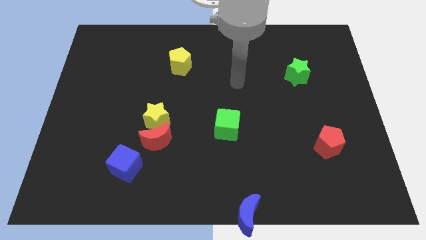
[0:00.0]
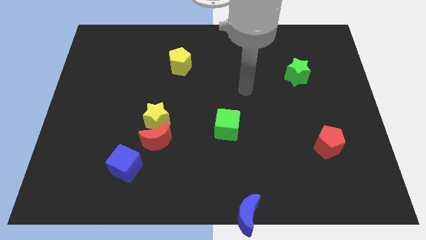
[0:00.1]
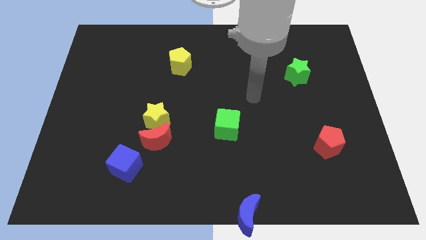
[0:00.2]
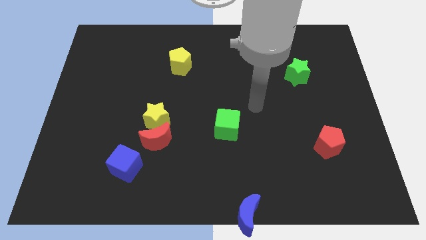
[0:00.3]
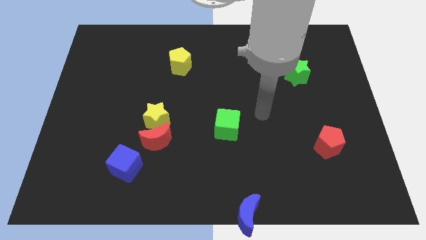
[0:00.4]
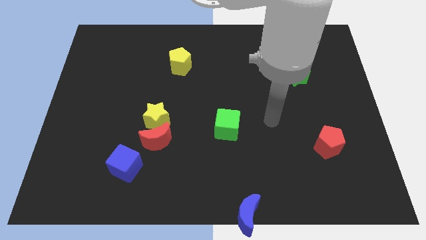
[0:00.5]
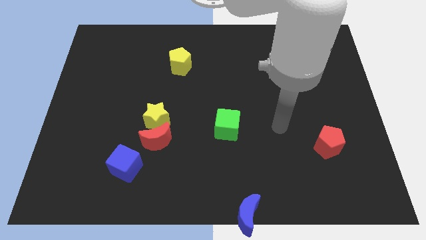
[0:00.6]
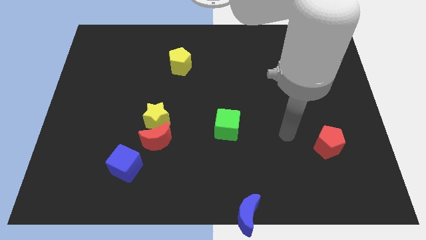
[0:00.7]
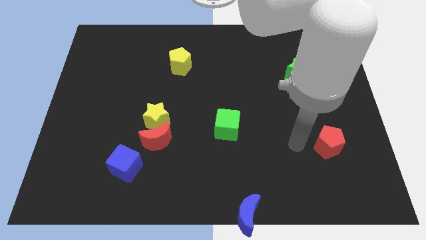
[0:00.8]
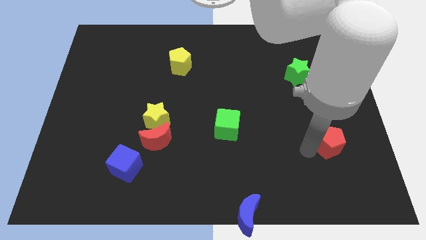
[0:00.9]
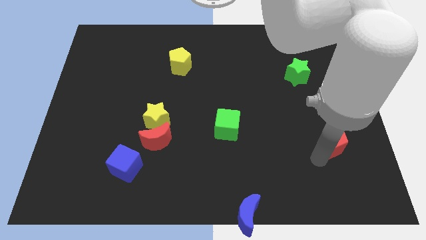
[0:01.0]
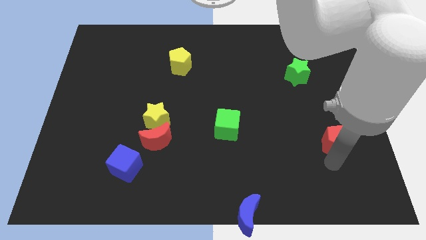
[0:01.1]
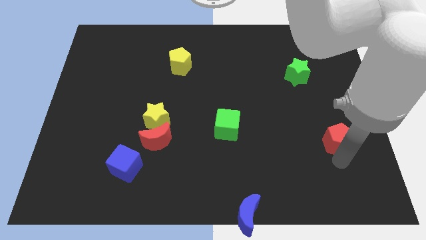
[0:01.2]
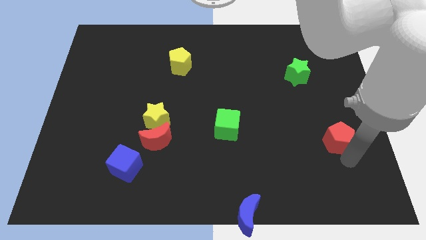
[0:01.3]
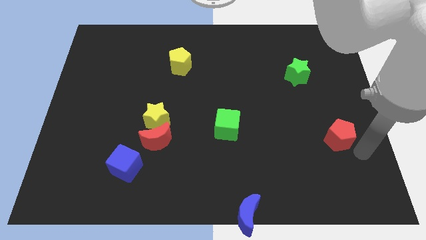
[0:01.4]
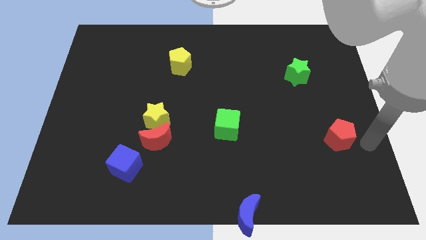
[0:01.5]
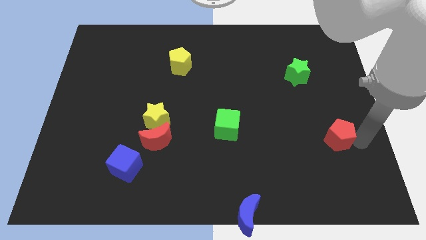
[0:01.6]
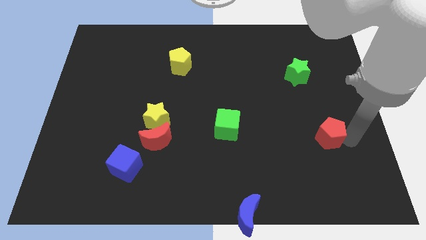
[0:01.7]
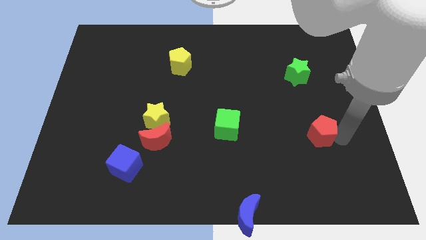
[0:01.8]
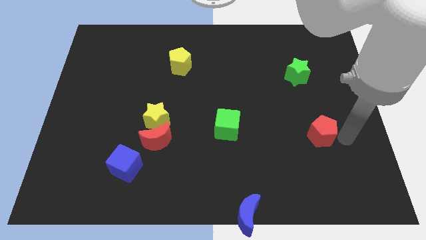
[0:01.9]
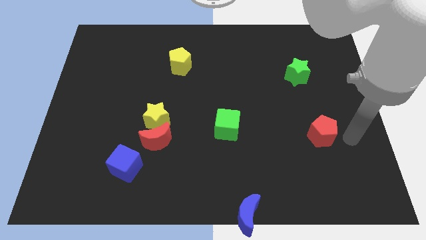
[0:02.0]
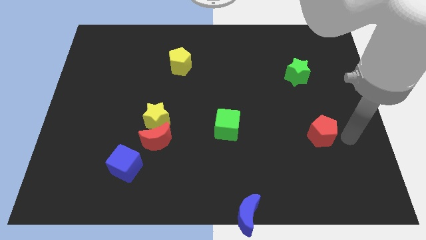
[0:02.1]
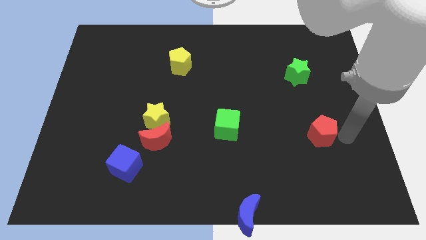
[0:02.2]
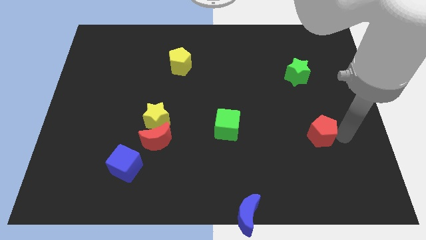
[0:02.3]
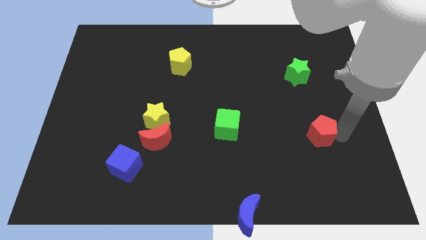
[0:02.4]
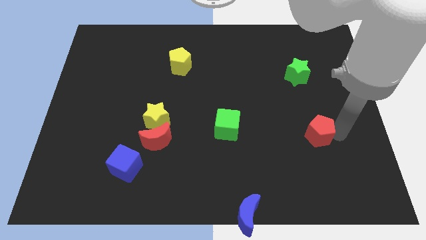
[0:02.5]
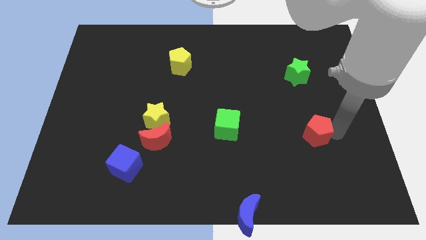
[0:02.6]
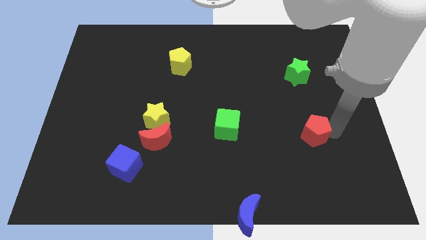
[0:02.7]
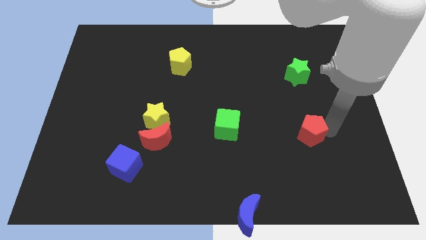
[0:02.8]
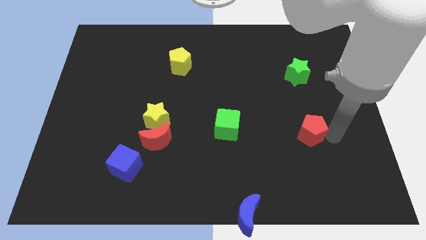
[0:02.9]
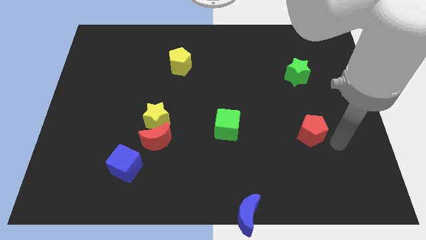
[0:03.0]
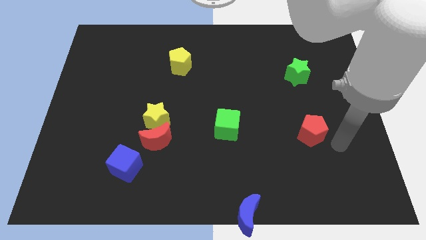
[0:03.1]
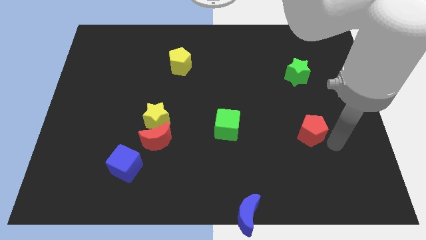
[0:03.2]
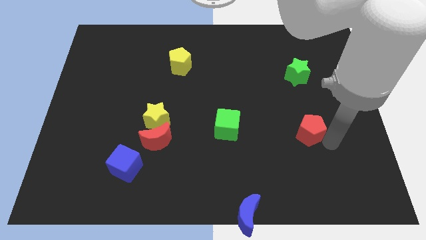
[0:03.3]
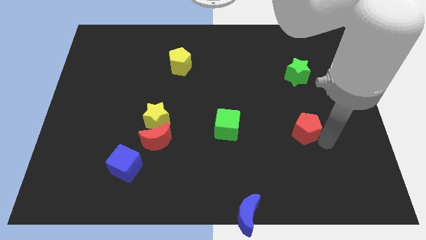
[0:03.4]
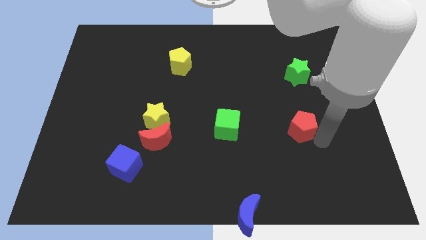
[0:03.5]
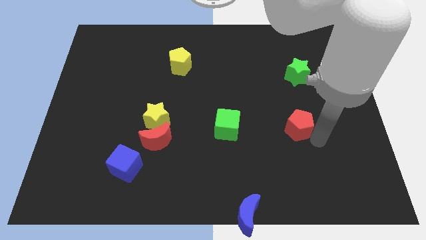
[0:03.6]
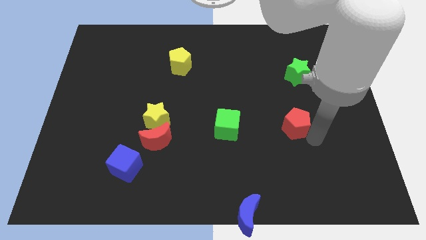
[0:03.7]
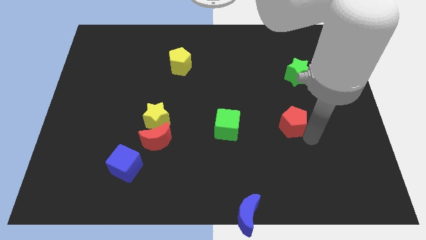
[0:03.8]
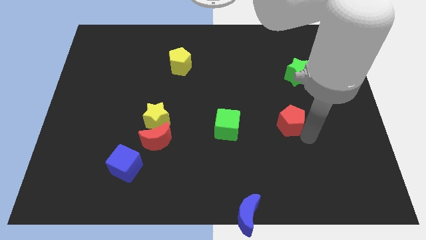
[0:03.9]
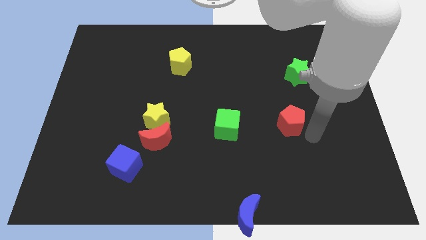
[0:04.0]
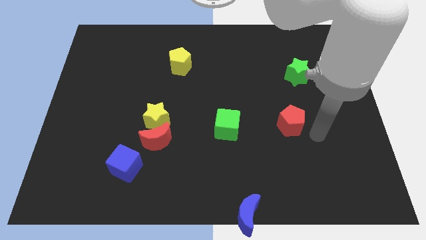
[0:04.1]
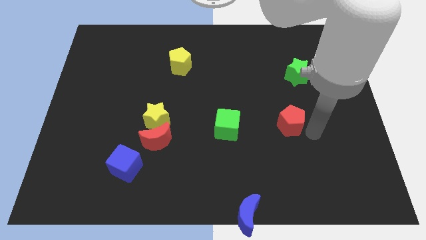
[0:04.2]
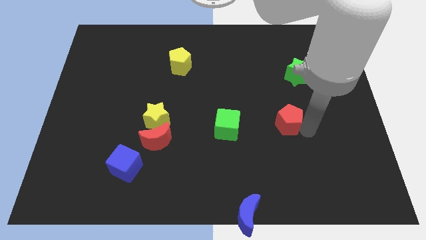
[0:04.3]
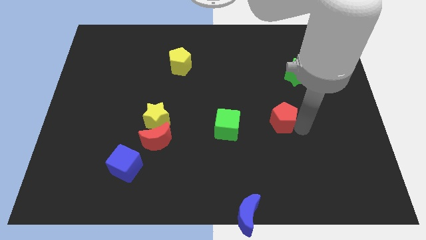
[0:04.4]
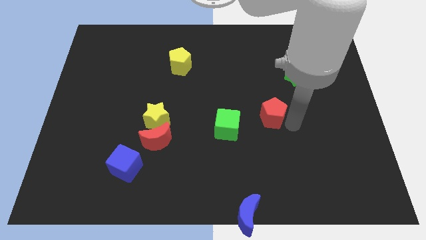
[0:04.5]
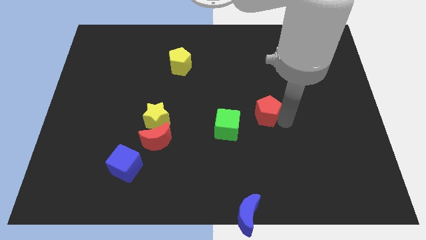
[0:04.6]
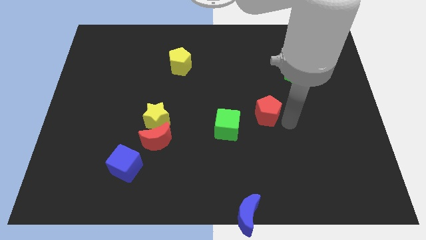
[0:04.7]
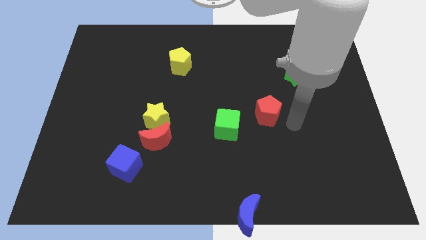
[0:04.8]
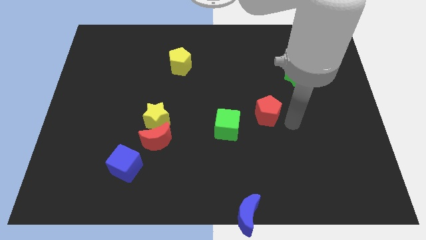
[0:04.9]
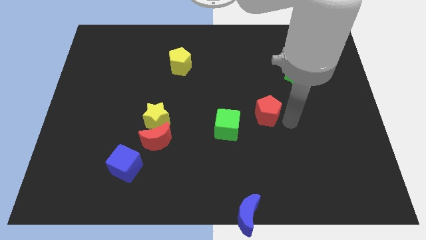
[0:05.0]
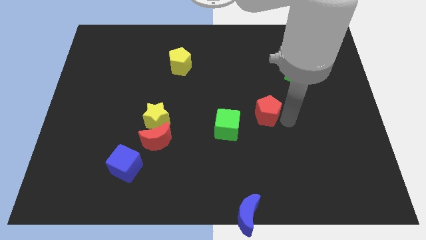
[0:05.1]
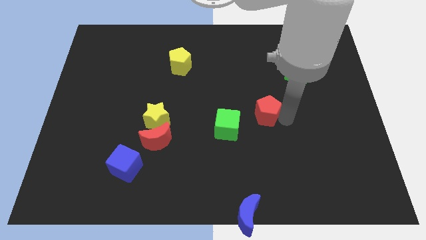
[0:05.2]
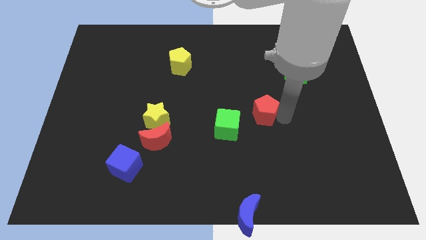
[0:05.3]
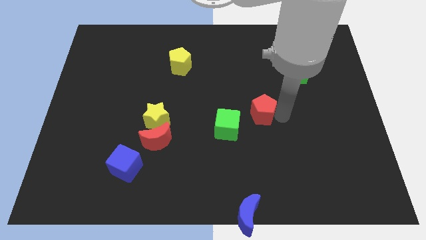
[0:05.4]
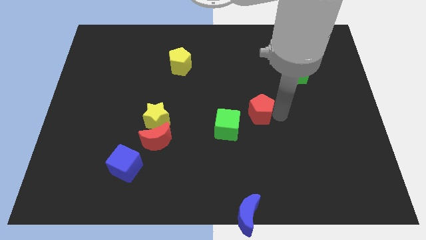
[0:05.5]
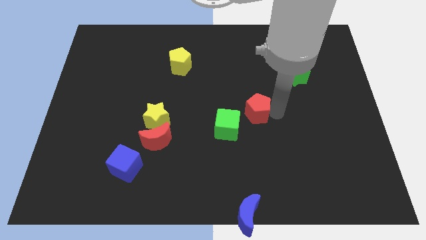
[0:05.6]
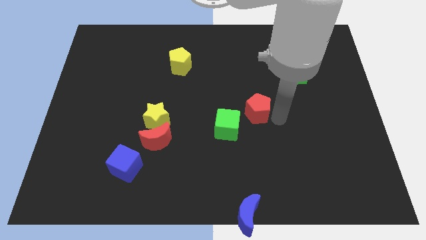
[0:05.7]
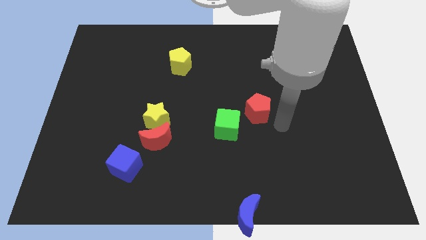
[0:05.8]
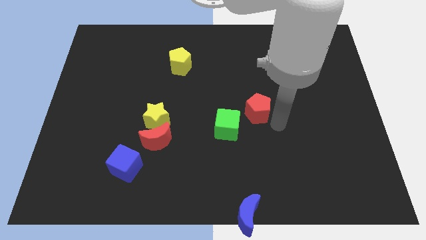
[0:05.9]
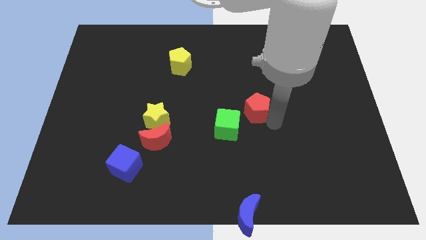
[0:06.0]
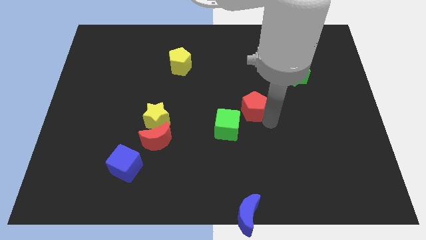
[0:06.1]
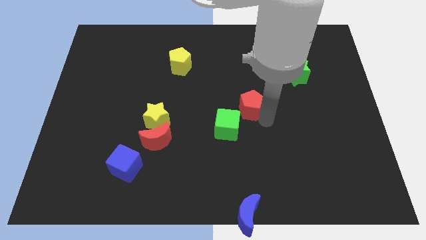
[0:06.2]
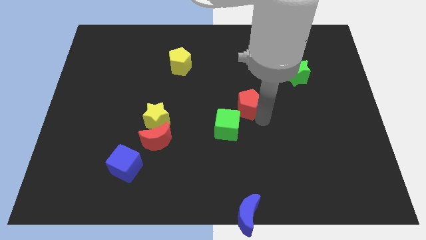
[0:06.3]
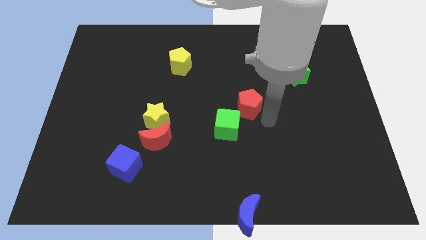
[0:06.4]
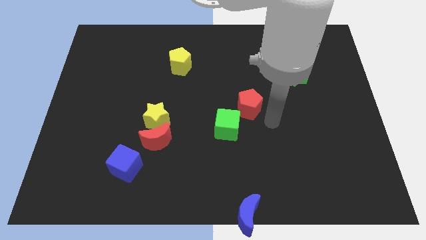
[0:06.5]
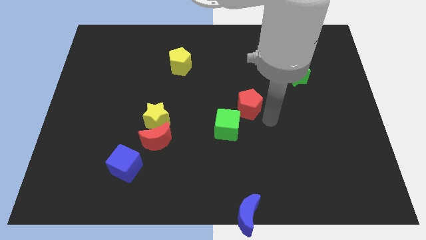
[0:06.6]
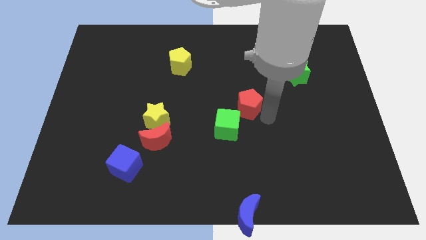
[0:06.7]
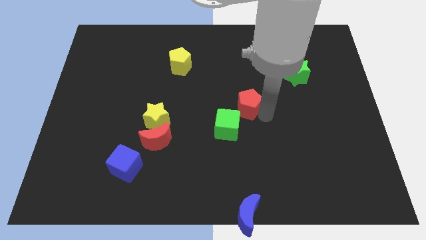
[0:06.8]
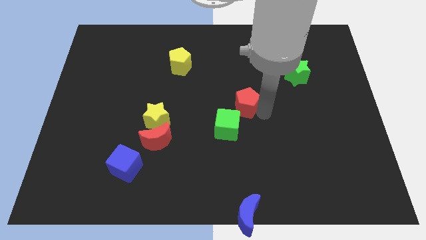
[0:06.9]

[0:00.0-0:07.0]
push the red pentagon to the top of the green cube

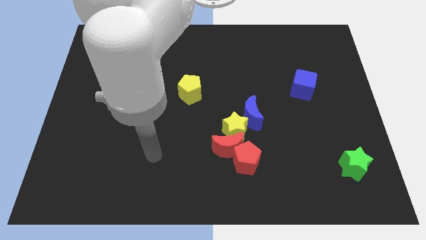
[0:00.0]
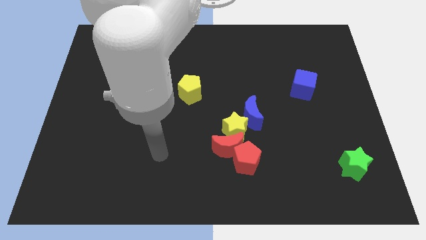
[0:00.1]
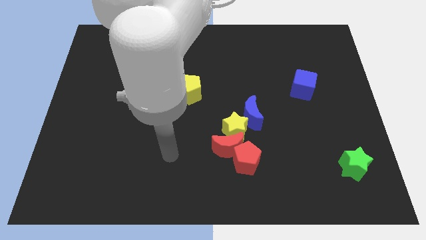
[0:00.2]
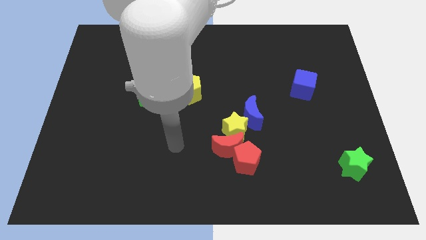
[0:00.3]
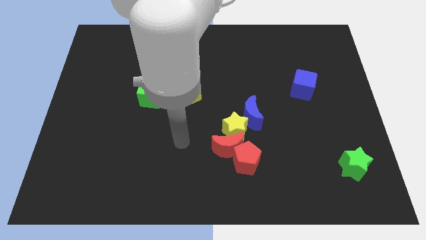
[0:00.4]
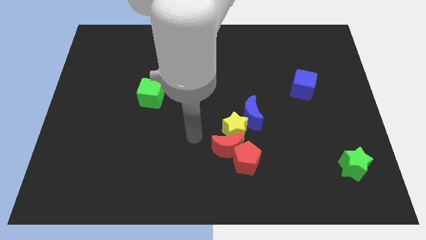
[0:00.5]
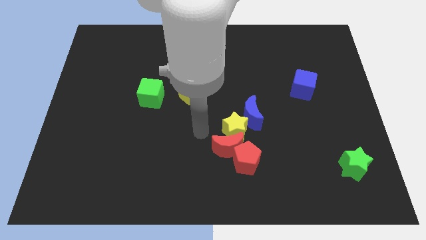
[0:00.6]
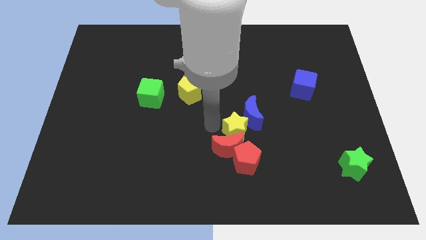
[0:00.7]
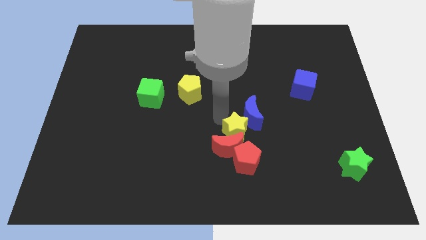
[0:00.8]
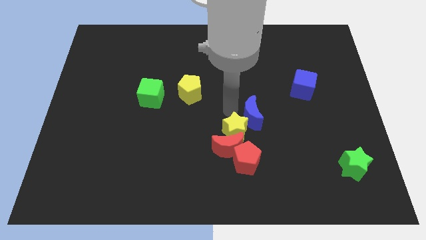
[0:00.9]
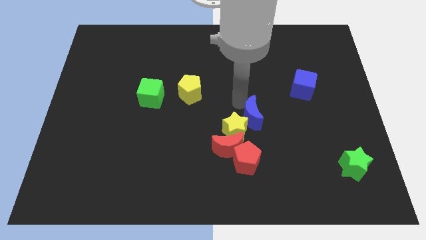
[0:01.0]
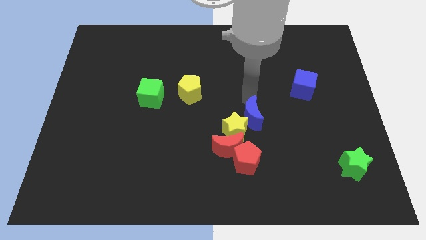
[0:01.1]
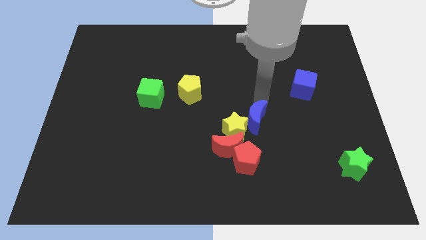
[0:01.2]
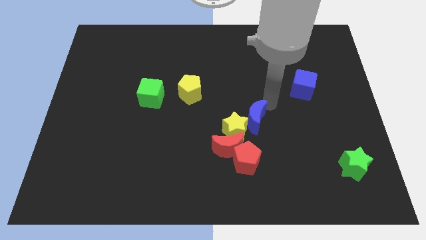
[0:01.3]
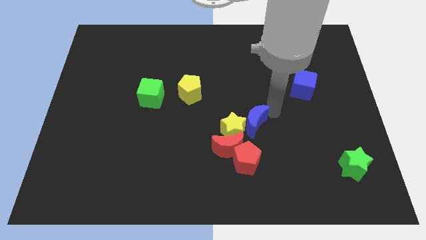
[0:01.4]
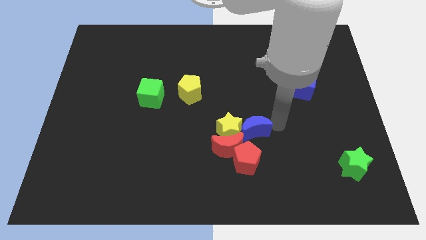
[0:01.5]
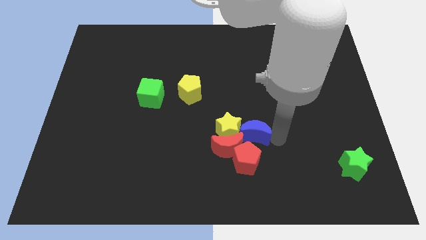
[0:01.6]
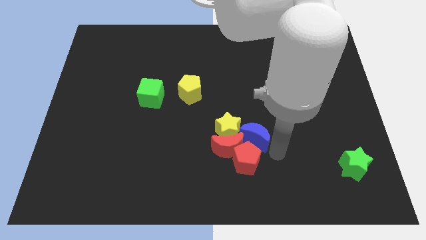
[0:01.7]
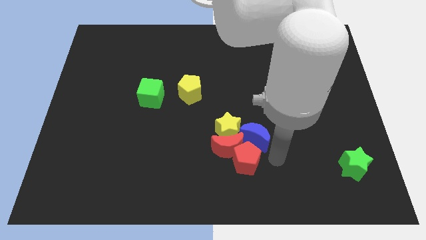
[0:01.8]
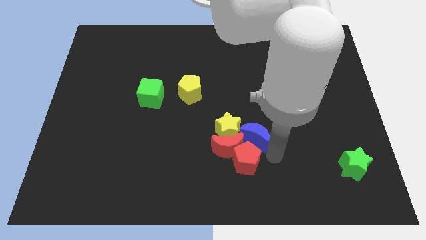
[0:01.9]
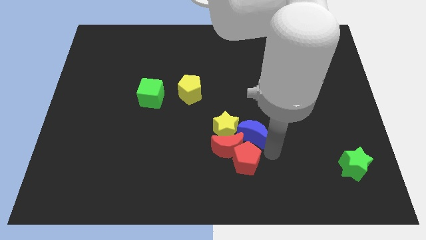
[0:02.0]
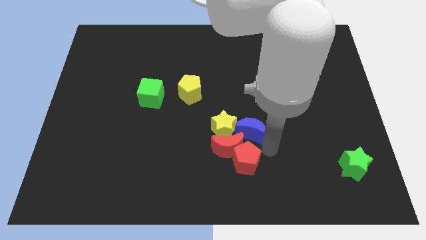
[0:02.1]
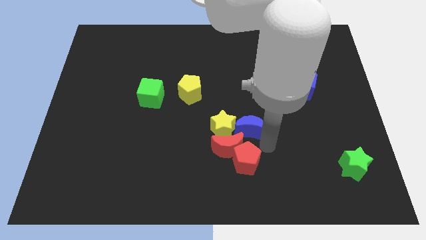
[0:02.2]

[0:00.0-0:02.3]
push the blue moon to the top of the red moon
